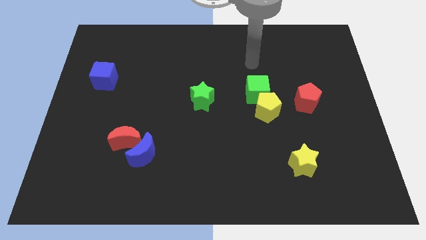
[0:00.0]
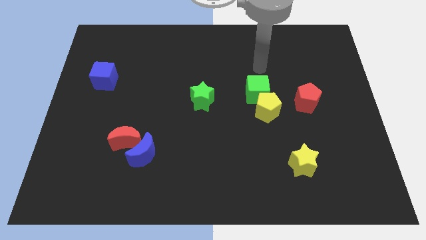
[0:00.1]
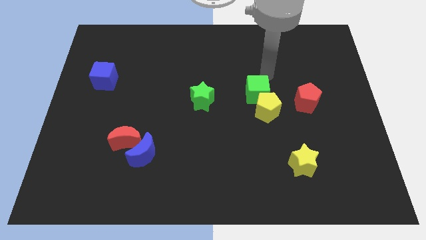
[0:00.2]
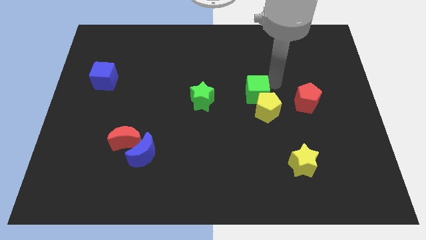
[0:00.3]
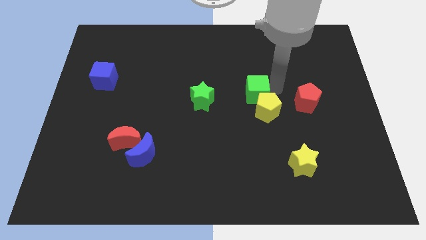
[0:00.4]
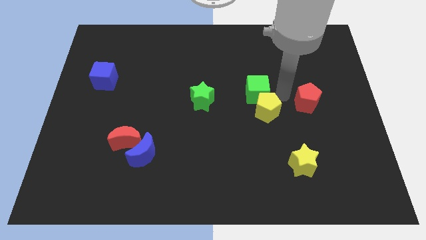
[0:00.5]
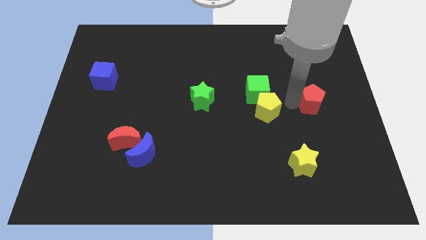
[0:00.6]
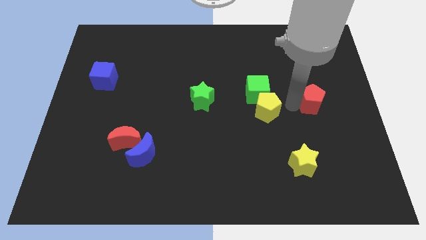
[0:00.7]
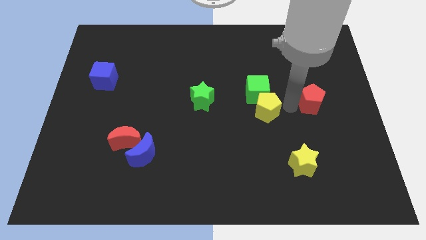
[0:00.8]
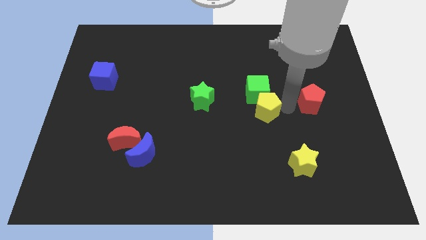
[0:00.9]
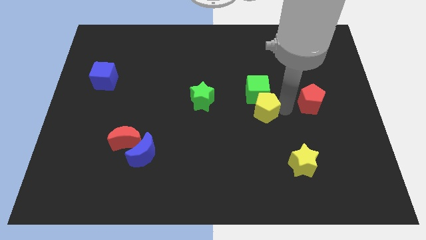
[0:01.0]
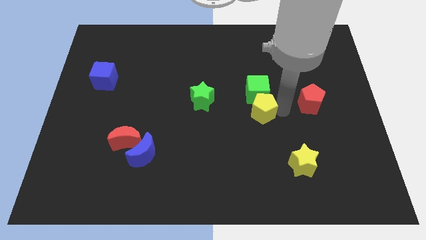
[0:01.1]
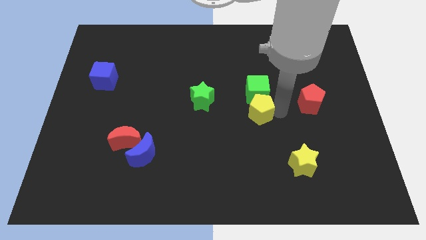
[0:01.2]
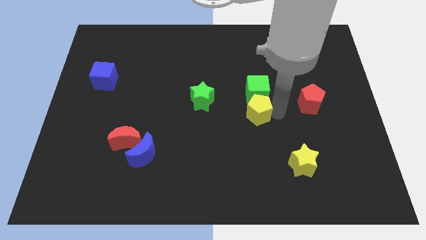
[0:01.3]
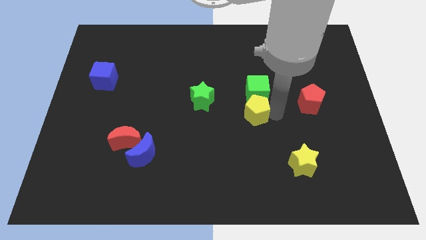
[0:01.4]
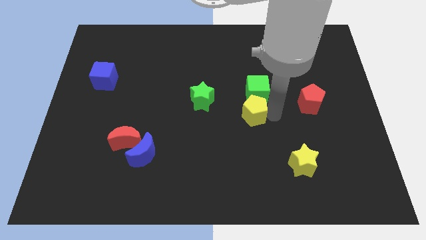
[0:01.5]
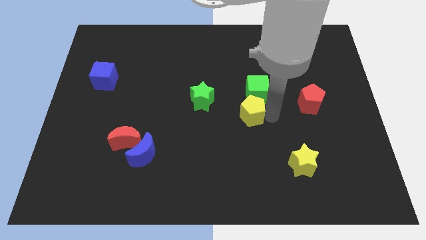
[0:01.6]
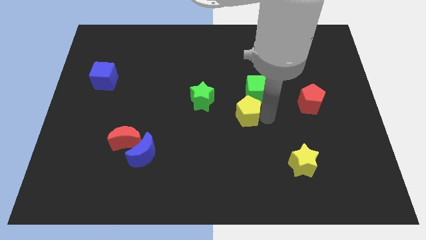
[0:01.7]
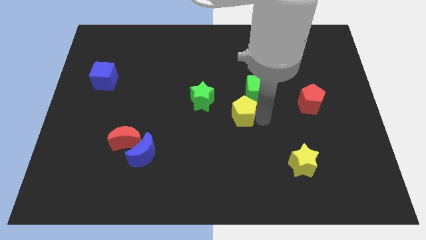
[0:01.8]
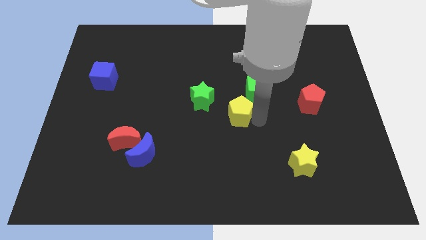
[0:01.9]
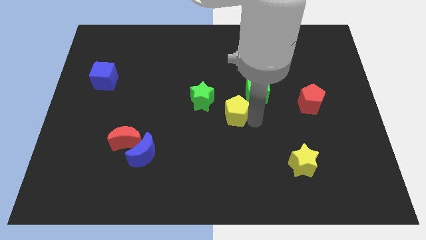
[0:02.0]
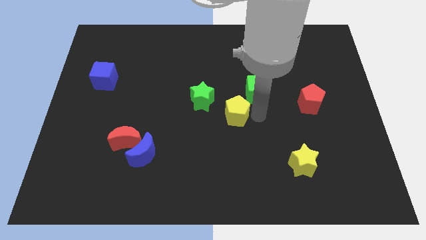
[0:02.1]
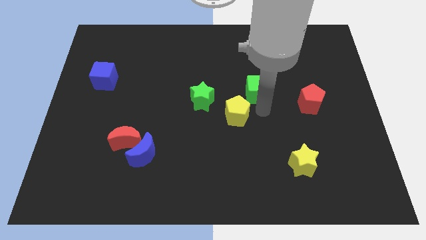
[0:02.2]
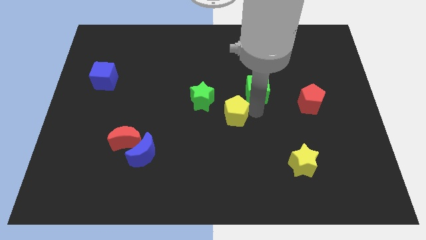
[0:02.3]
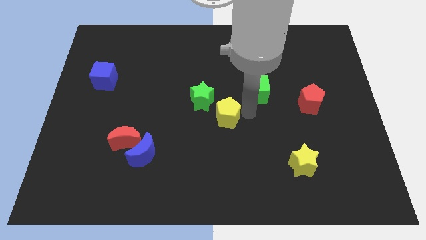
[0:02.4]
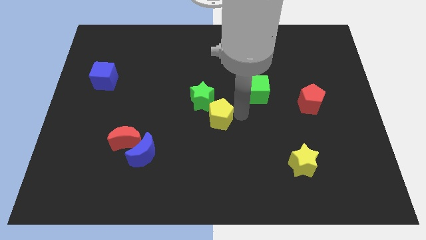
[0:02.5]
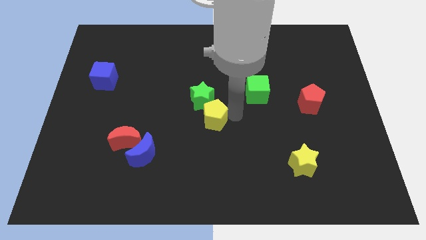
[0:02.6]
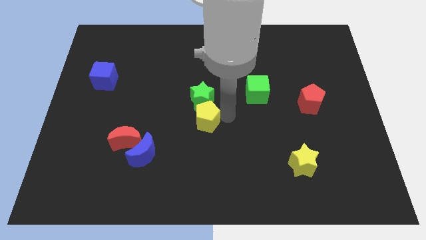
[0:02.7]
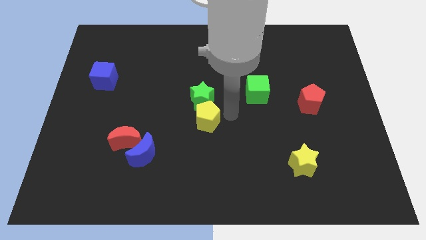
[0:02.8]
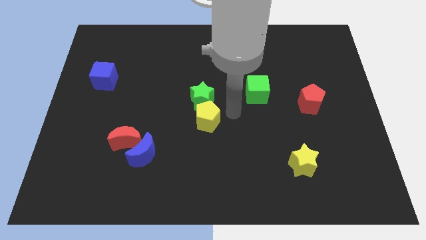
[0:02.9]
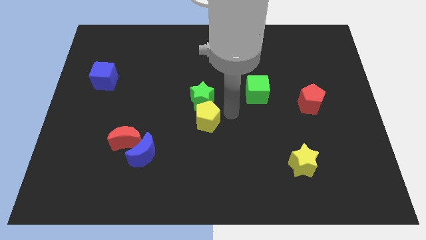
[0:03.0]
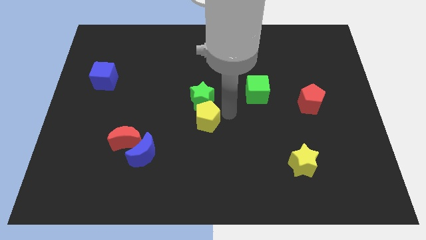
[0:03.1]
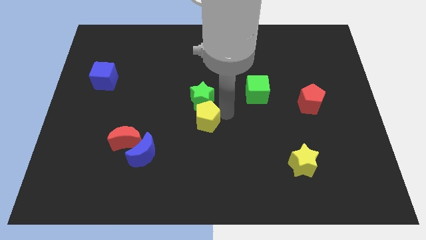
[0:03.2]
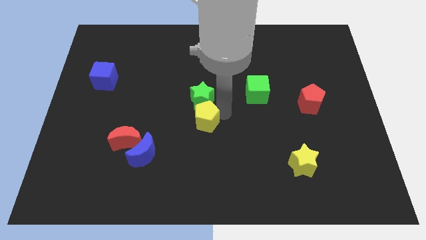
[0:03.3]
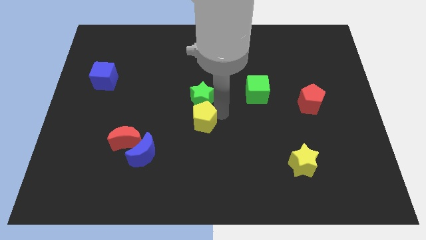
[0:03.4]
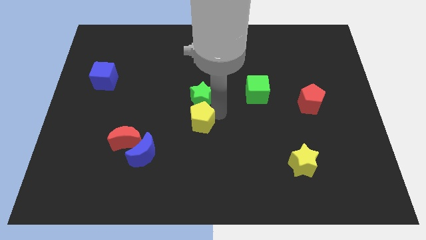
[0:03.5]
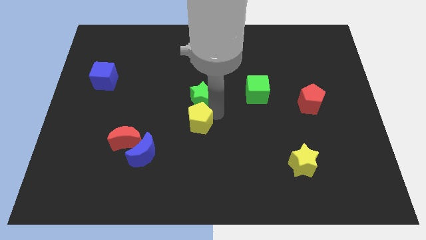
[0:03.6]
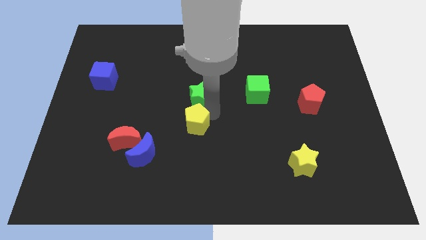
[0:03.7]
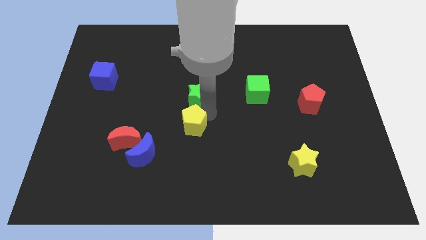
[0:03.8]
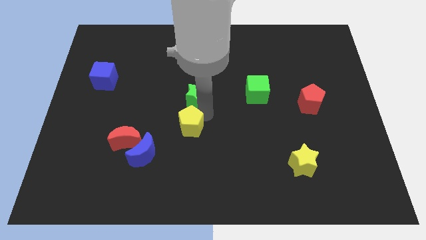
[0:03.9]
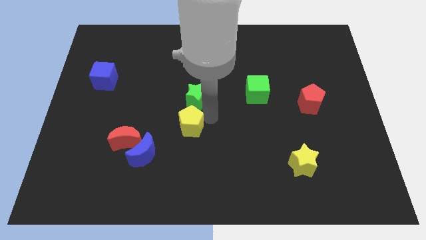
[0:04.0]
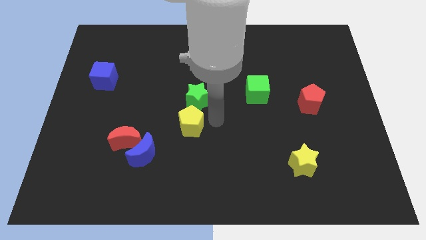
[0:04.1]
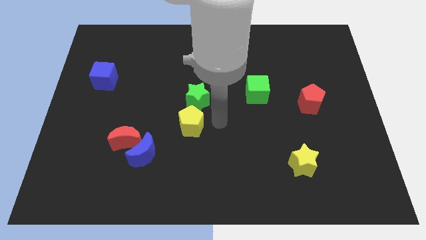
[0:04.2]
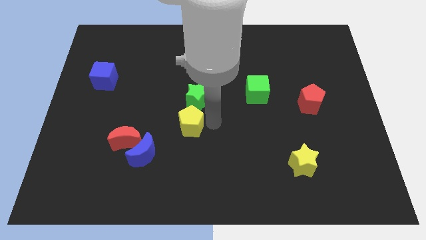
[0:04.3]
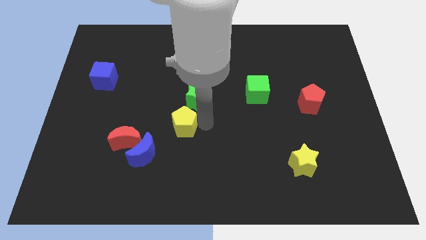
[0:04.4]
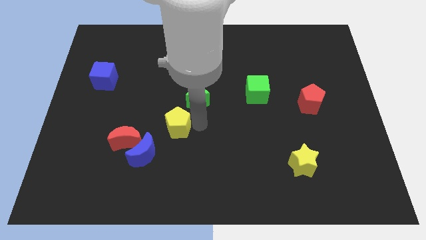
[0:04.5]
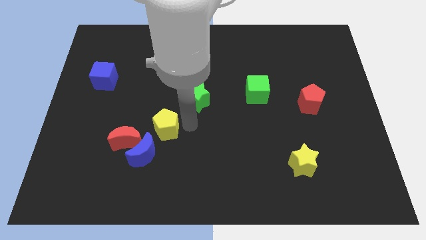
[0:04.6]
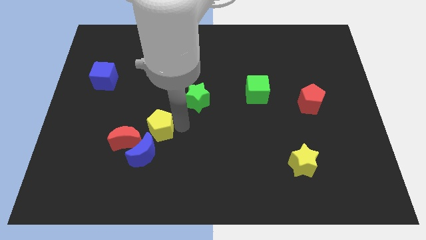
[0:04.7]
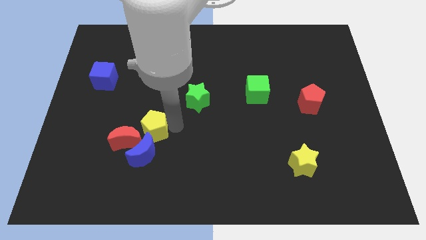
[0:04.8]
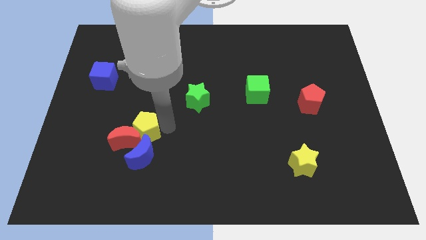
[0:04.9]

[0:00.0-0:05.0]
put the yellow pentagon to the red moon

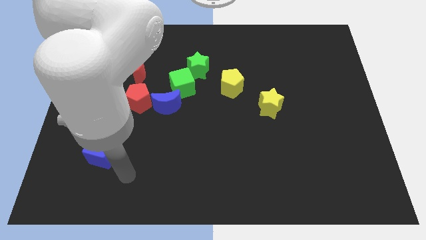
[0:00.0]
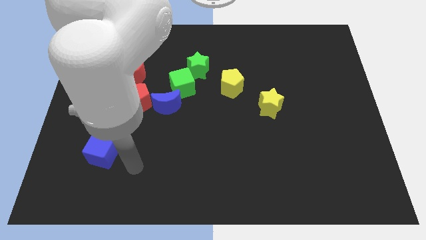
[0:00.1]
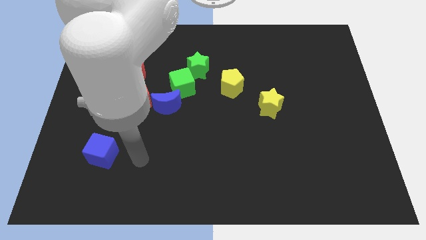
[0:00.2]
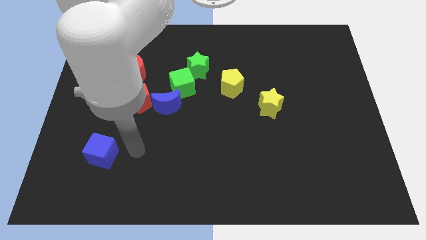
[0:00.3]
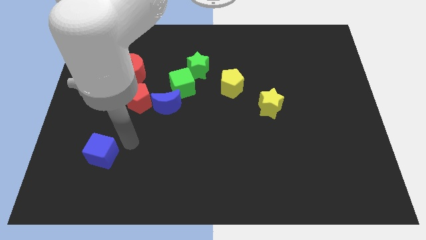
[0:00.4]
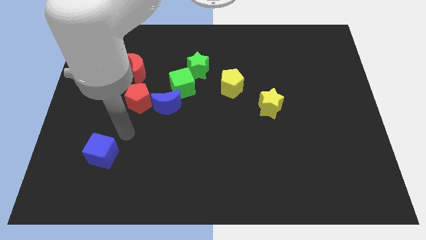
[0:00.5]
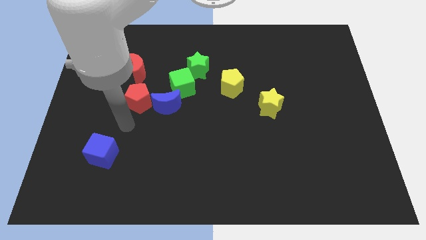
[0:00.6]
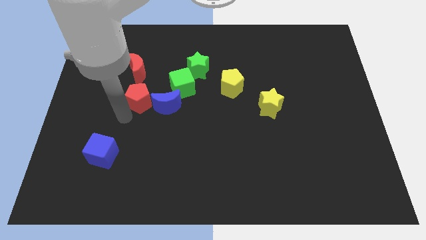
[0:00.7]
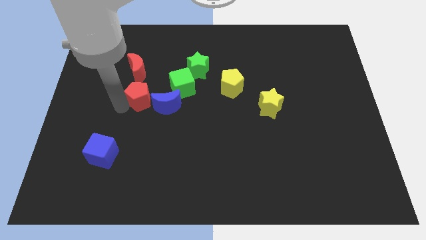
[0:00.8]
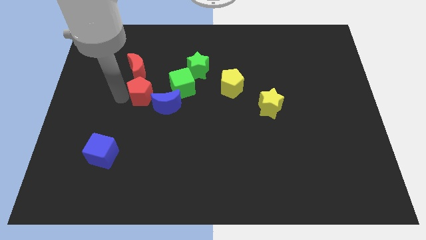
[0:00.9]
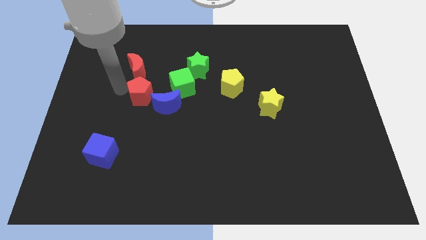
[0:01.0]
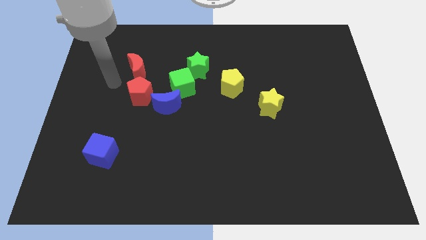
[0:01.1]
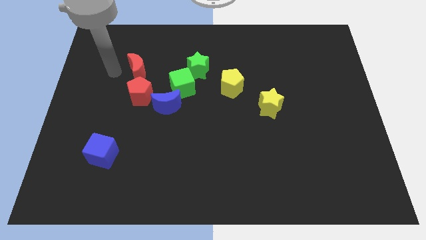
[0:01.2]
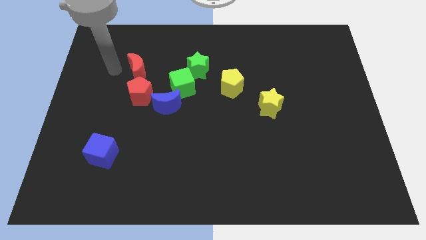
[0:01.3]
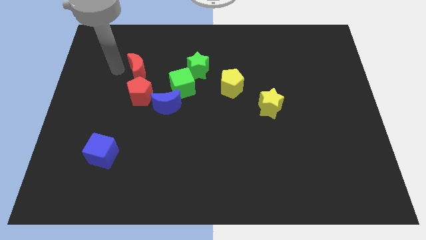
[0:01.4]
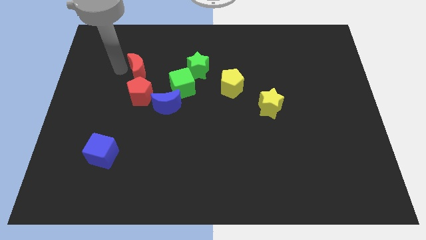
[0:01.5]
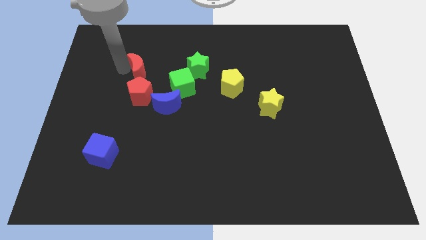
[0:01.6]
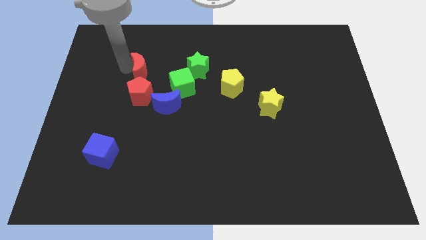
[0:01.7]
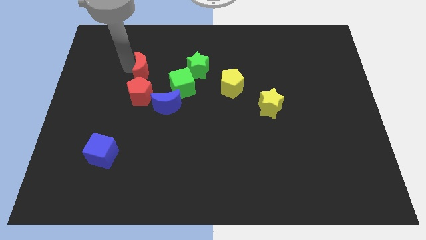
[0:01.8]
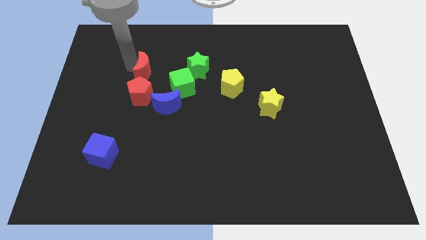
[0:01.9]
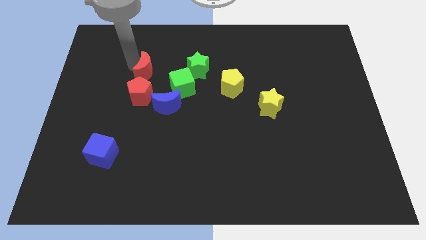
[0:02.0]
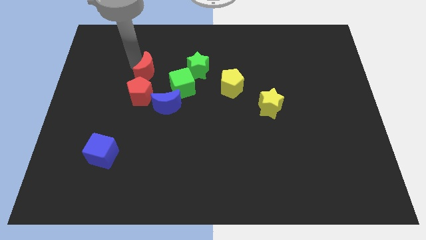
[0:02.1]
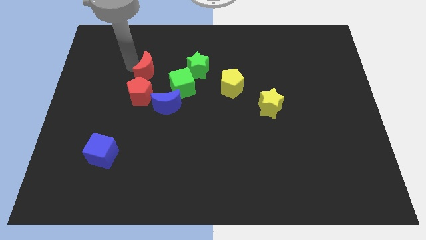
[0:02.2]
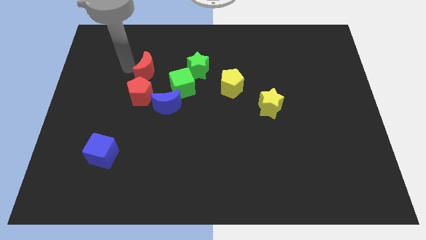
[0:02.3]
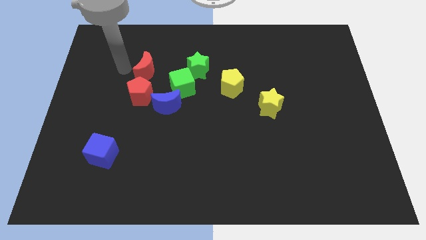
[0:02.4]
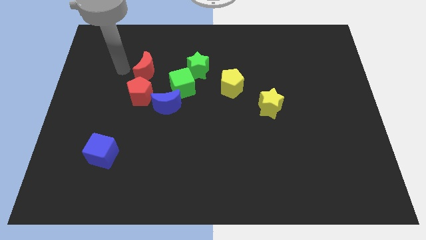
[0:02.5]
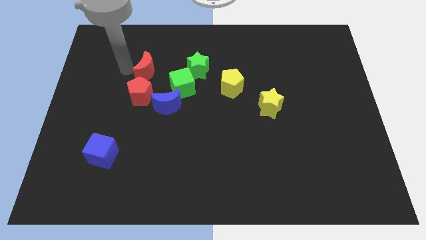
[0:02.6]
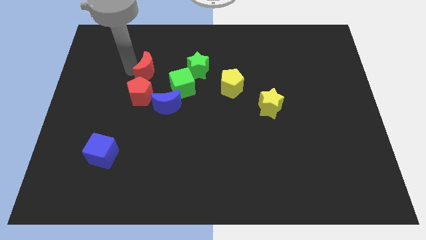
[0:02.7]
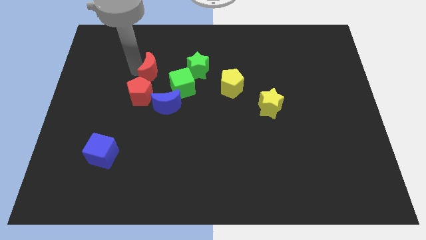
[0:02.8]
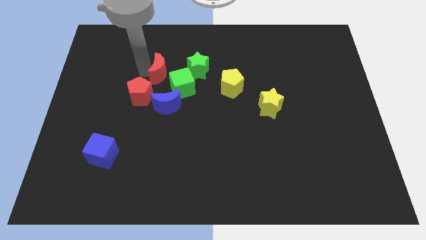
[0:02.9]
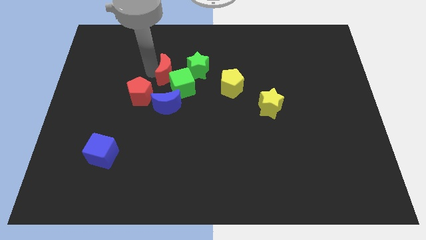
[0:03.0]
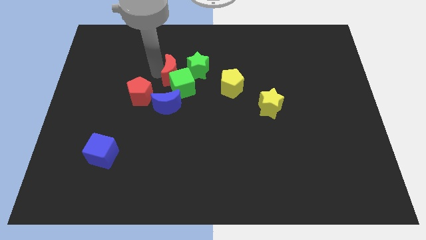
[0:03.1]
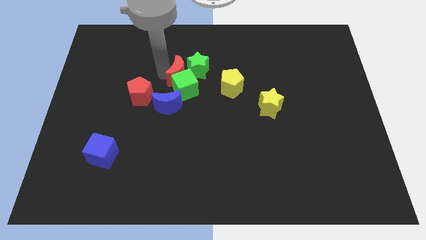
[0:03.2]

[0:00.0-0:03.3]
slide the red moon close to the green star
